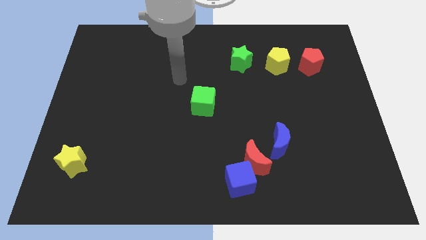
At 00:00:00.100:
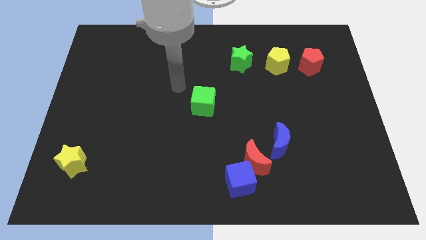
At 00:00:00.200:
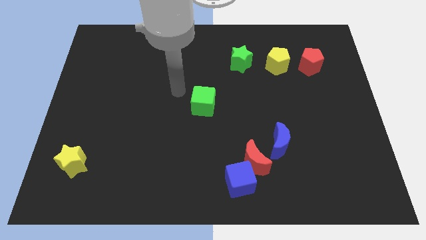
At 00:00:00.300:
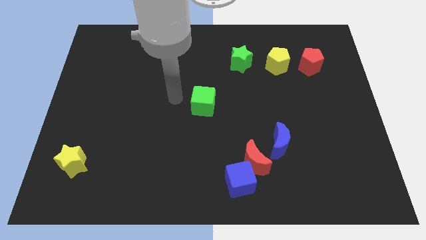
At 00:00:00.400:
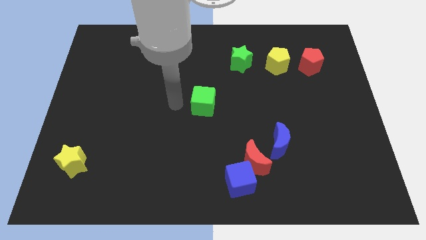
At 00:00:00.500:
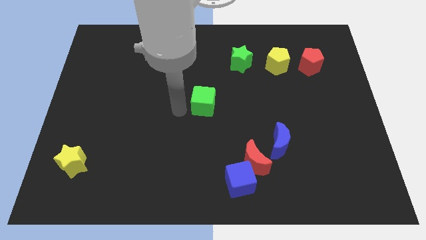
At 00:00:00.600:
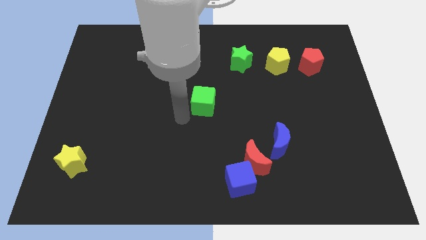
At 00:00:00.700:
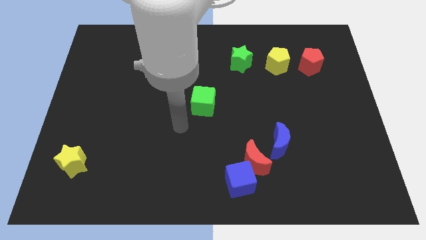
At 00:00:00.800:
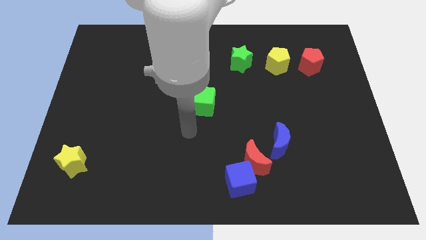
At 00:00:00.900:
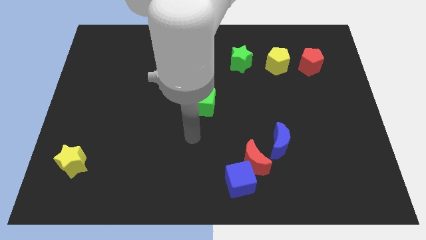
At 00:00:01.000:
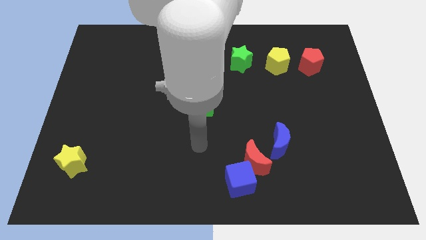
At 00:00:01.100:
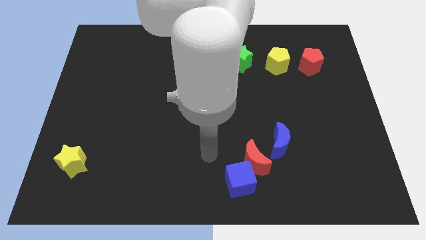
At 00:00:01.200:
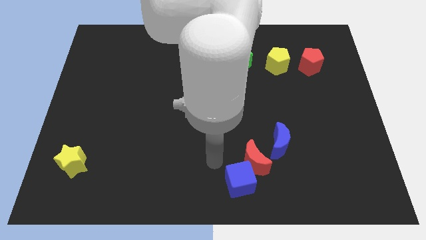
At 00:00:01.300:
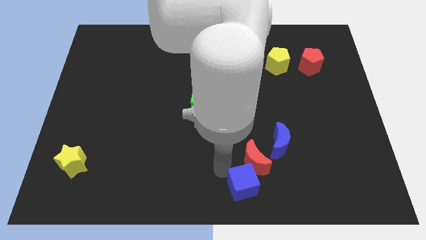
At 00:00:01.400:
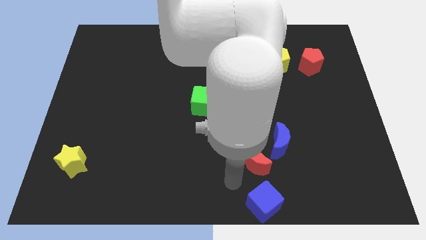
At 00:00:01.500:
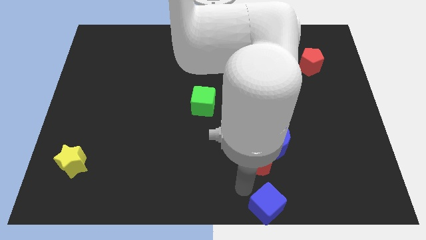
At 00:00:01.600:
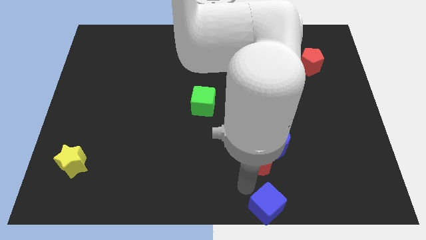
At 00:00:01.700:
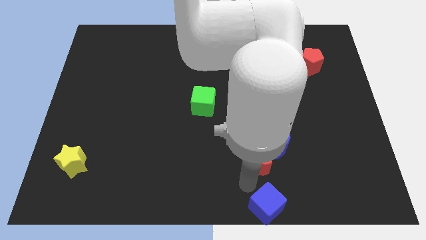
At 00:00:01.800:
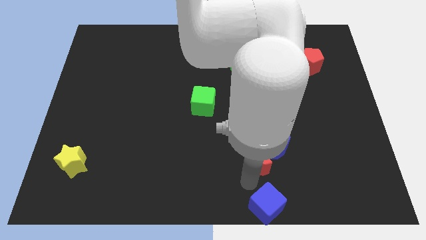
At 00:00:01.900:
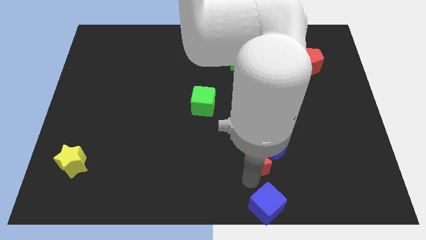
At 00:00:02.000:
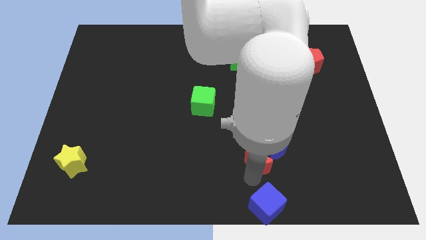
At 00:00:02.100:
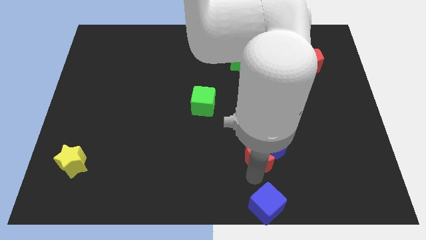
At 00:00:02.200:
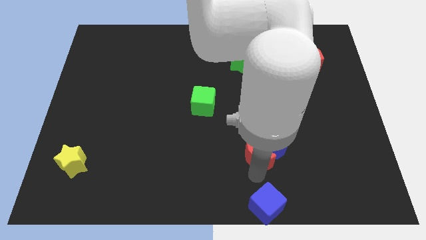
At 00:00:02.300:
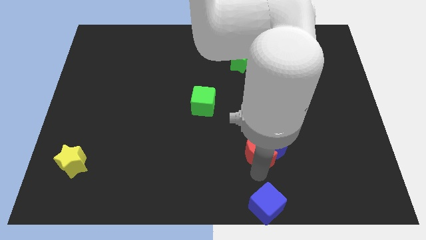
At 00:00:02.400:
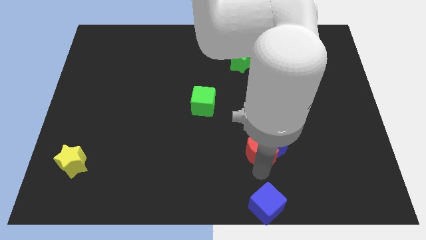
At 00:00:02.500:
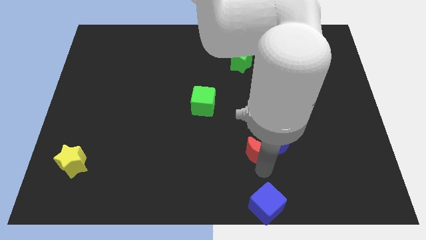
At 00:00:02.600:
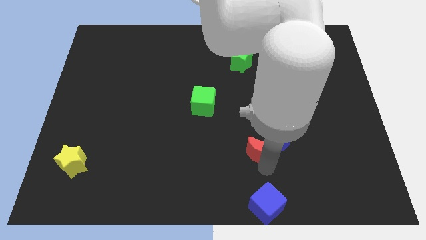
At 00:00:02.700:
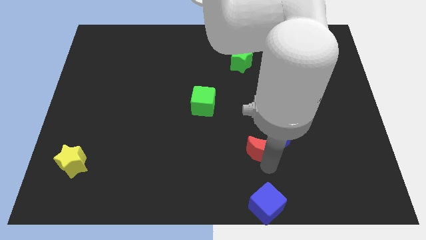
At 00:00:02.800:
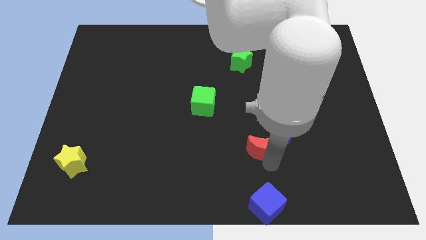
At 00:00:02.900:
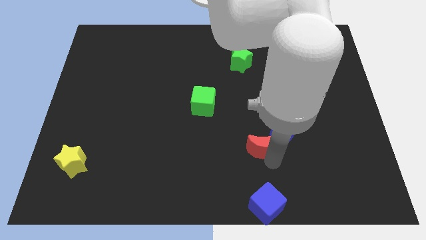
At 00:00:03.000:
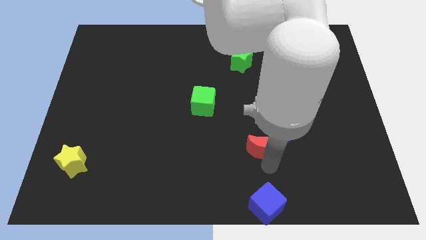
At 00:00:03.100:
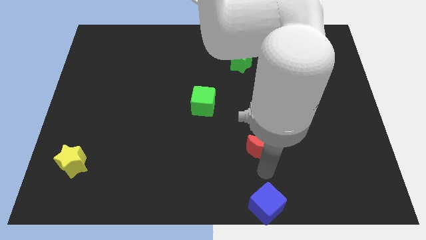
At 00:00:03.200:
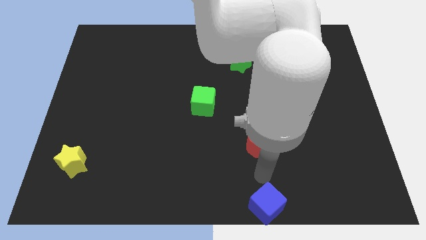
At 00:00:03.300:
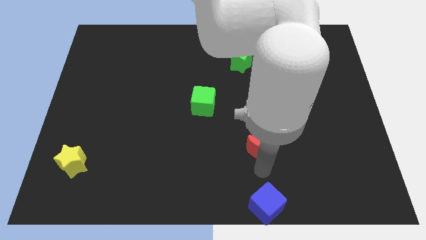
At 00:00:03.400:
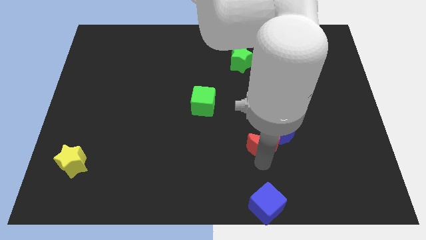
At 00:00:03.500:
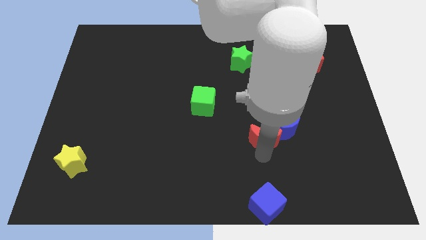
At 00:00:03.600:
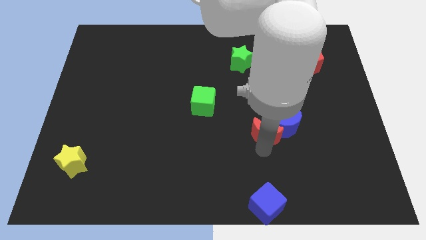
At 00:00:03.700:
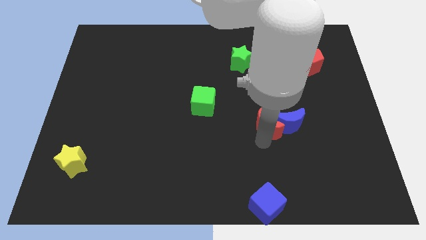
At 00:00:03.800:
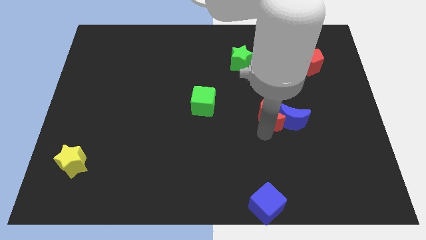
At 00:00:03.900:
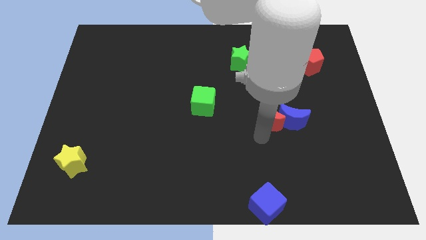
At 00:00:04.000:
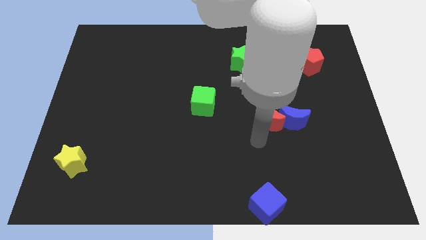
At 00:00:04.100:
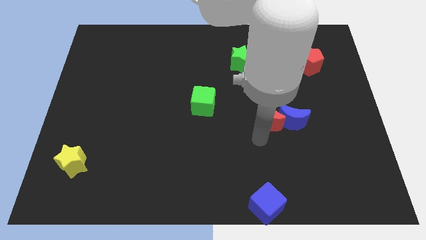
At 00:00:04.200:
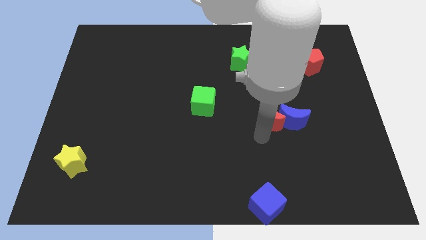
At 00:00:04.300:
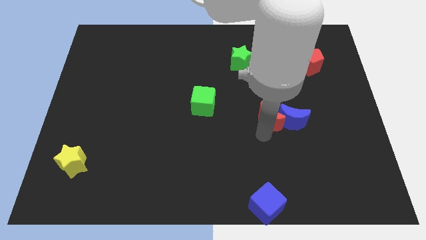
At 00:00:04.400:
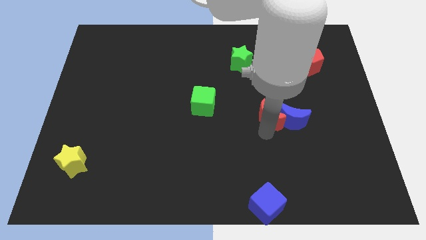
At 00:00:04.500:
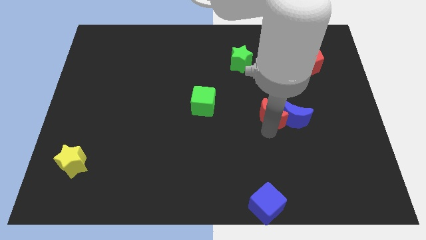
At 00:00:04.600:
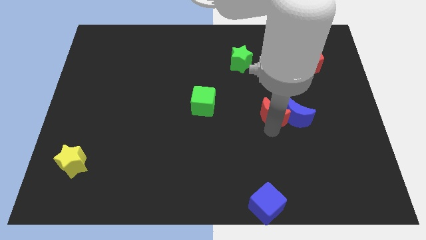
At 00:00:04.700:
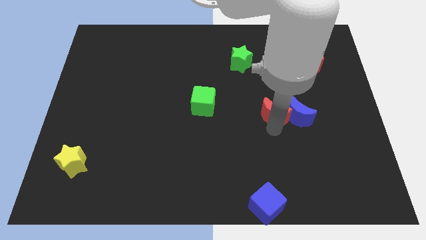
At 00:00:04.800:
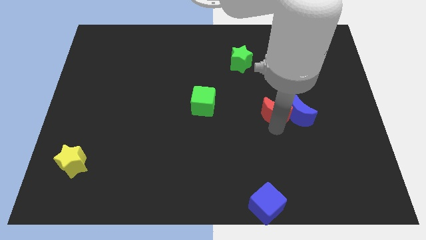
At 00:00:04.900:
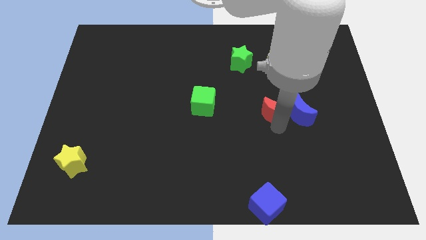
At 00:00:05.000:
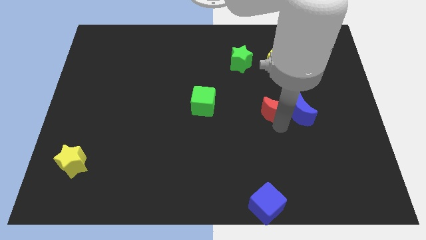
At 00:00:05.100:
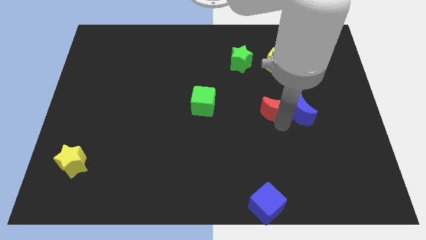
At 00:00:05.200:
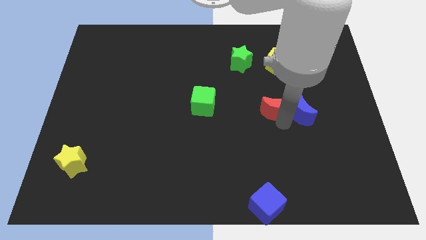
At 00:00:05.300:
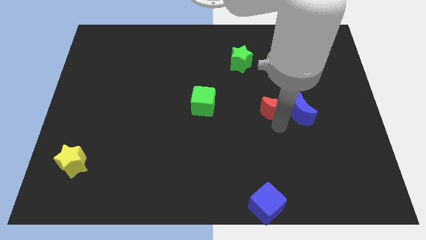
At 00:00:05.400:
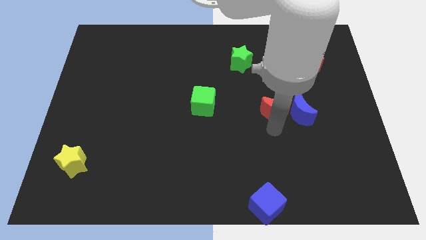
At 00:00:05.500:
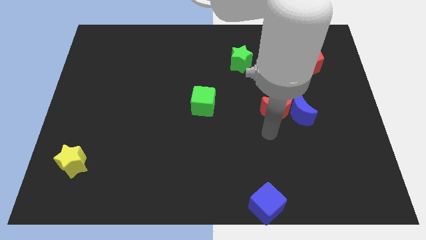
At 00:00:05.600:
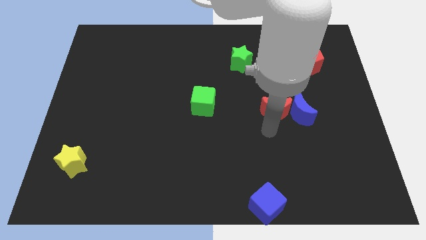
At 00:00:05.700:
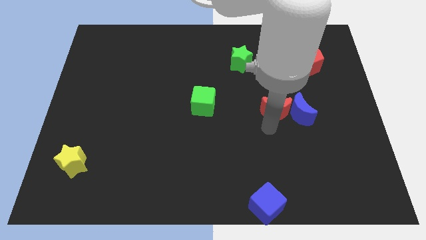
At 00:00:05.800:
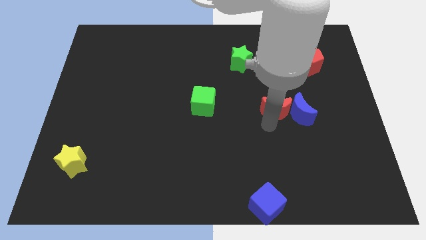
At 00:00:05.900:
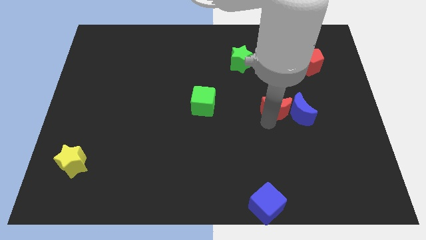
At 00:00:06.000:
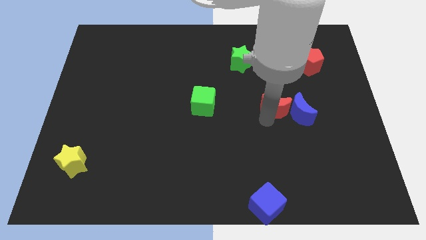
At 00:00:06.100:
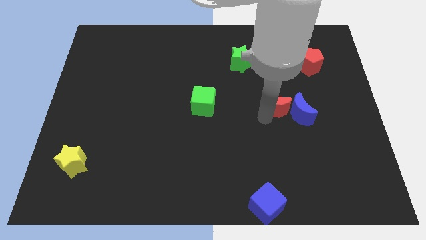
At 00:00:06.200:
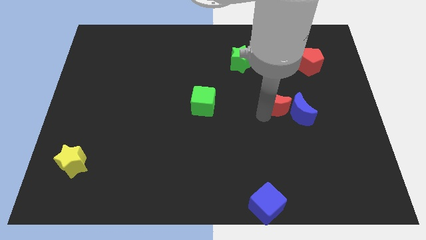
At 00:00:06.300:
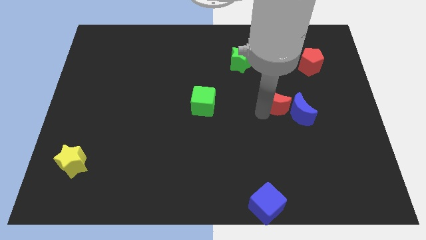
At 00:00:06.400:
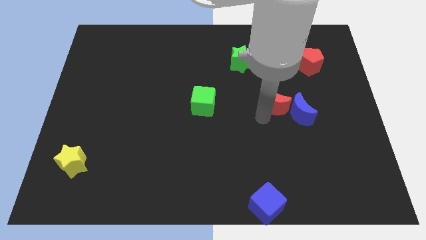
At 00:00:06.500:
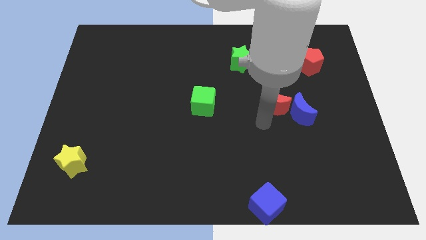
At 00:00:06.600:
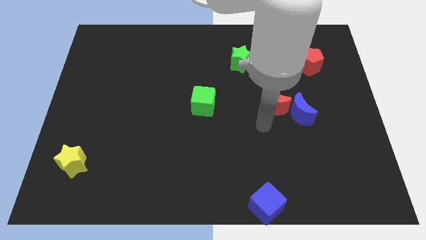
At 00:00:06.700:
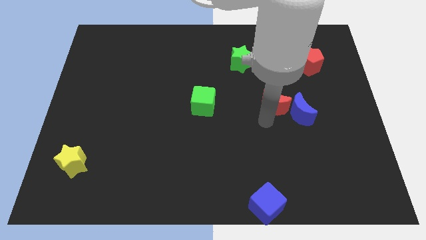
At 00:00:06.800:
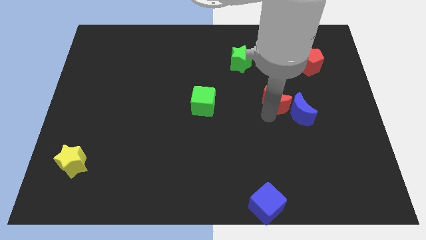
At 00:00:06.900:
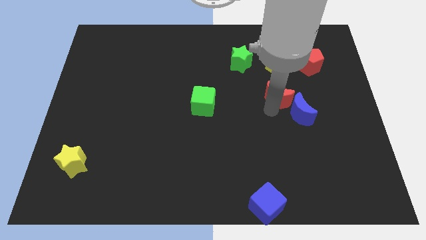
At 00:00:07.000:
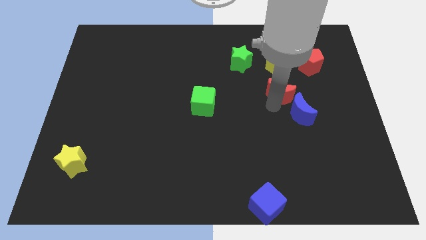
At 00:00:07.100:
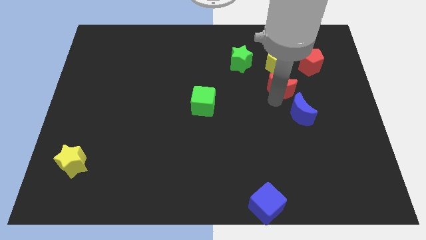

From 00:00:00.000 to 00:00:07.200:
put the red moon diagonally down and to the left of the red pentagon
